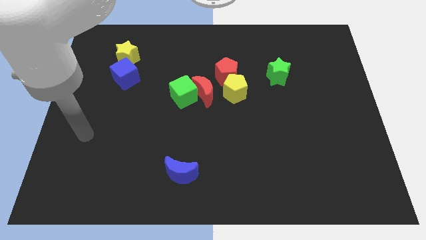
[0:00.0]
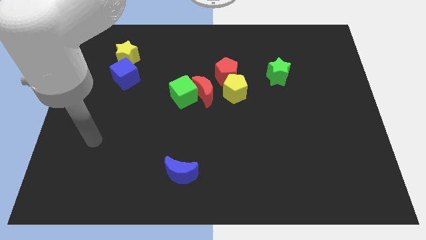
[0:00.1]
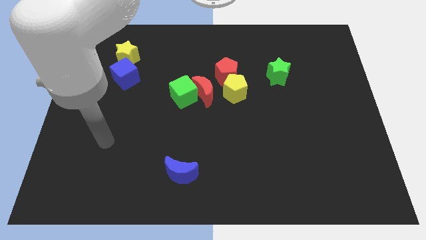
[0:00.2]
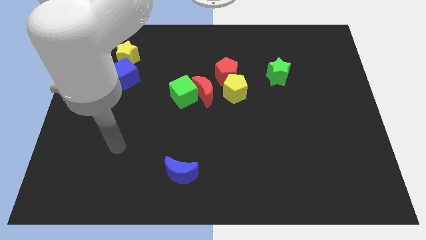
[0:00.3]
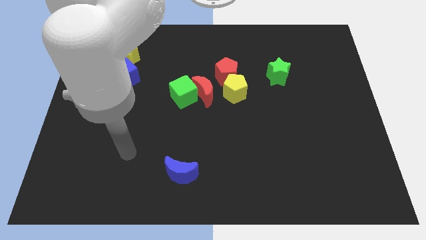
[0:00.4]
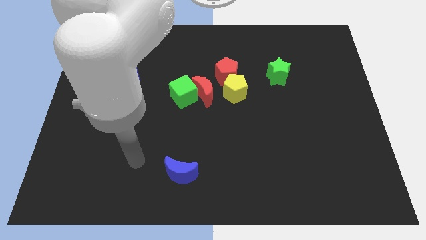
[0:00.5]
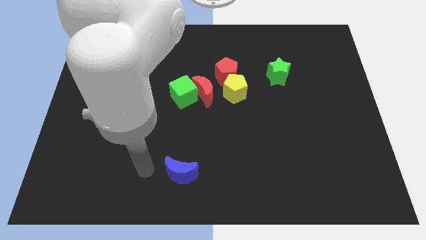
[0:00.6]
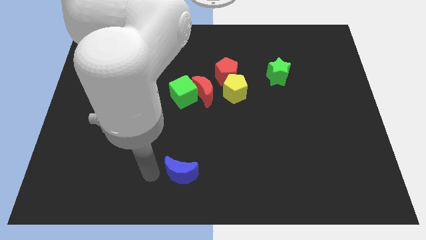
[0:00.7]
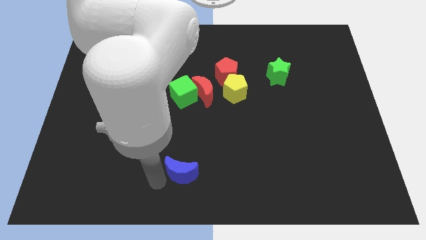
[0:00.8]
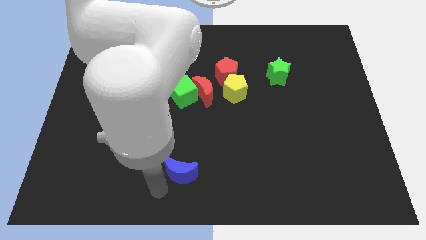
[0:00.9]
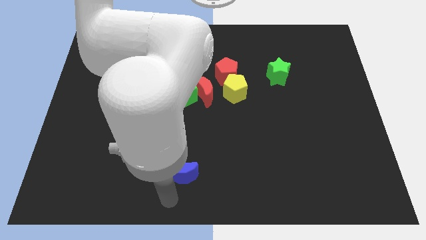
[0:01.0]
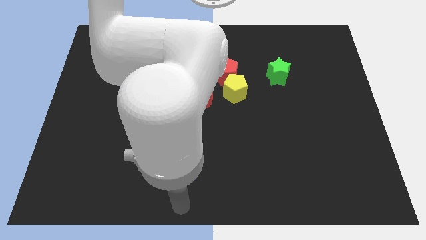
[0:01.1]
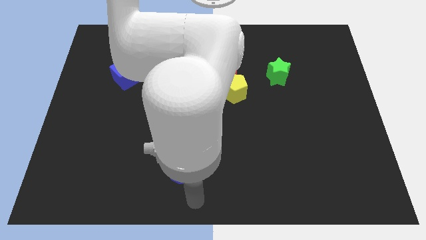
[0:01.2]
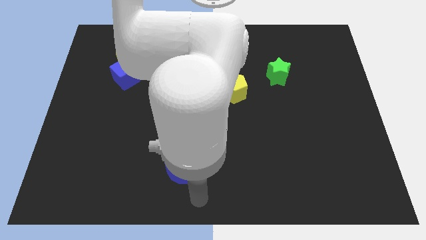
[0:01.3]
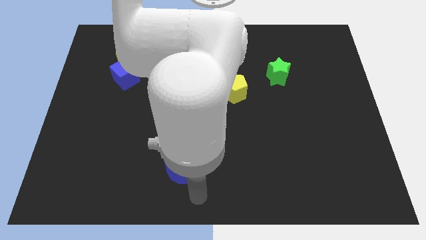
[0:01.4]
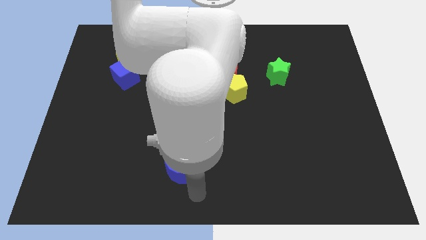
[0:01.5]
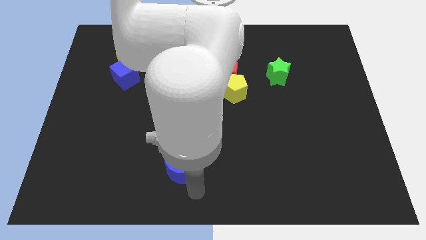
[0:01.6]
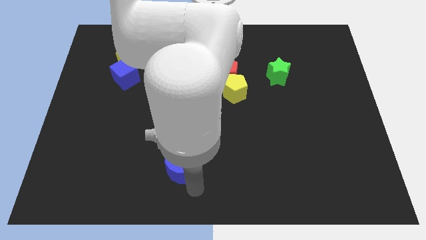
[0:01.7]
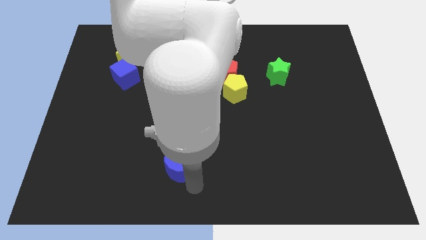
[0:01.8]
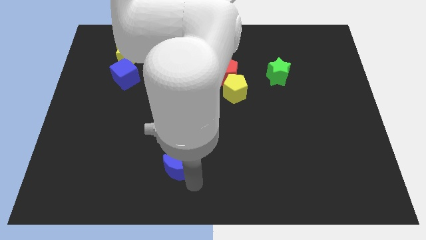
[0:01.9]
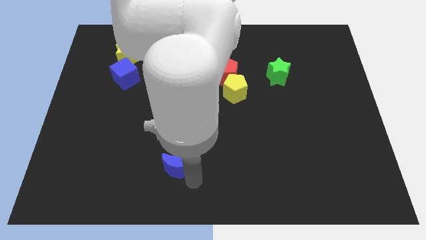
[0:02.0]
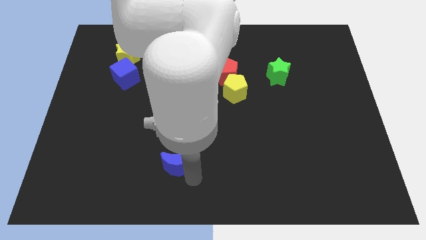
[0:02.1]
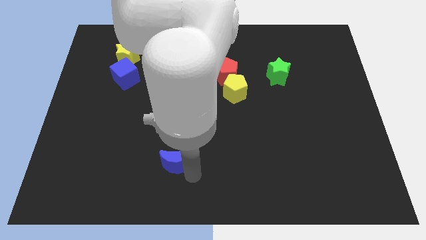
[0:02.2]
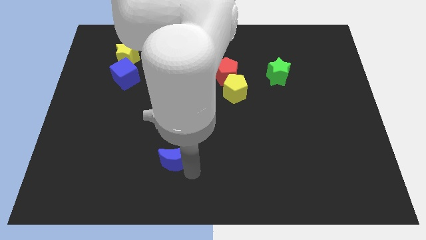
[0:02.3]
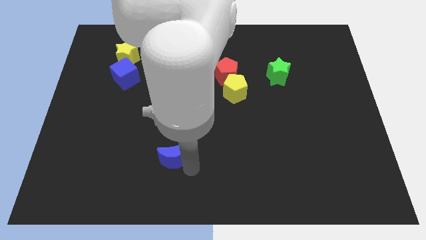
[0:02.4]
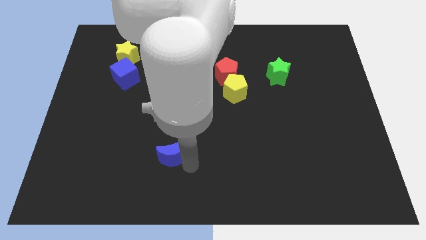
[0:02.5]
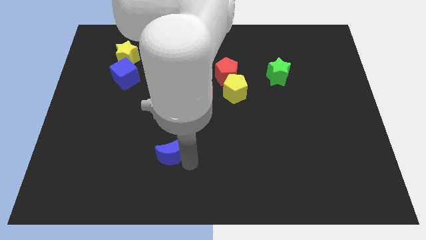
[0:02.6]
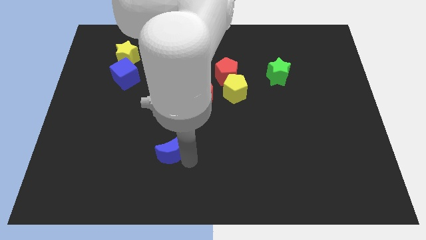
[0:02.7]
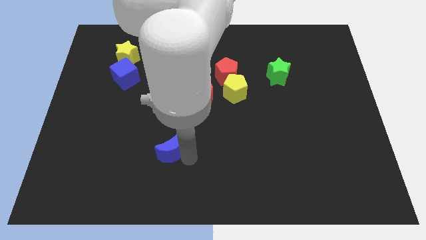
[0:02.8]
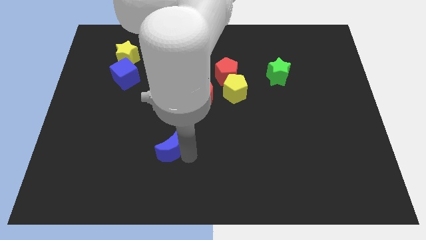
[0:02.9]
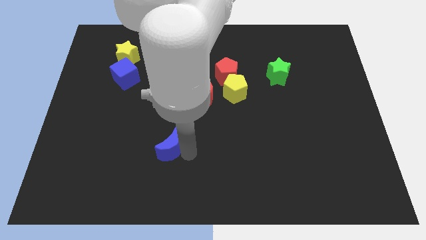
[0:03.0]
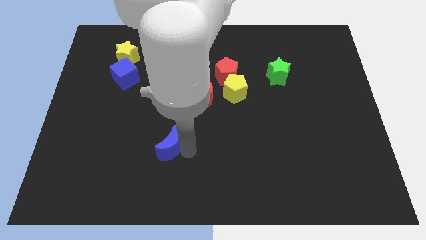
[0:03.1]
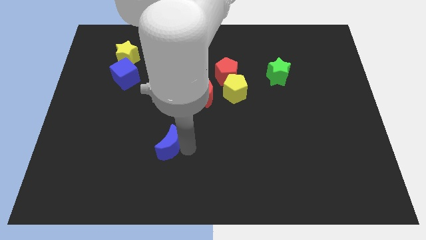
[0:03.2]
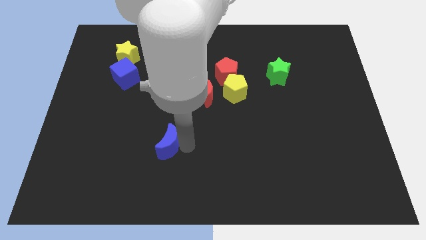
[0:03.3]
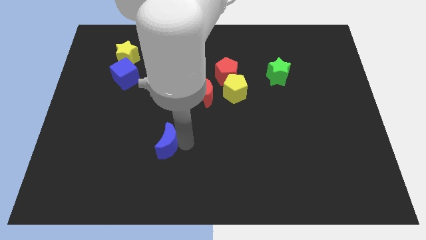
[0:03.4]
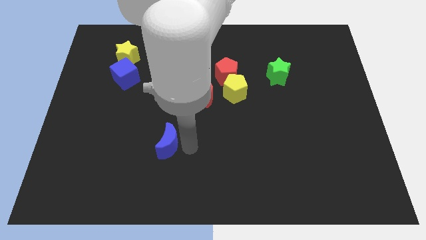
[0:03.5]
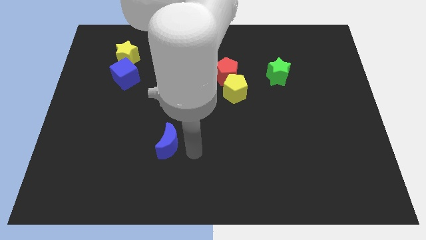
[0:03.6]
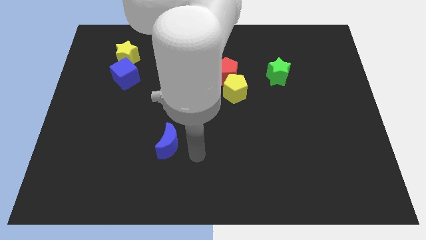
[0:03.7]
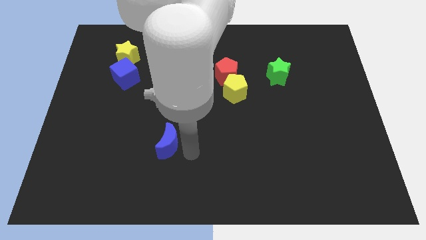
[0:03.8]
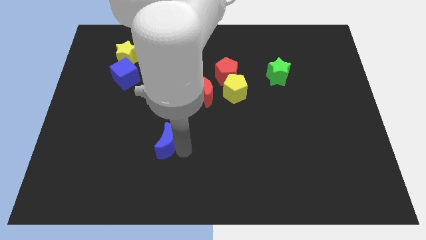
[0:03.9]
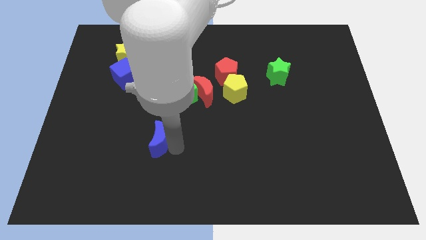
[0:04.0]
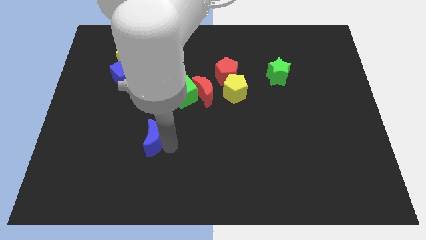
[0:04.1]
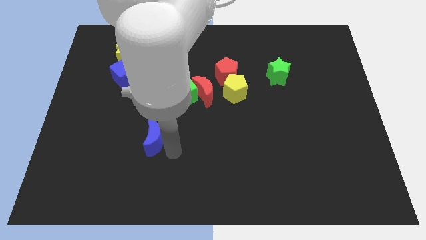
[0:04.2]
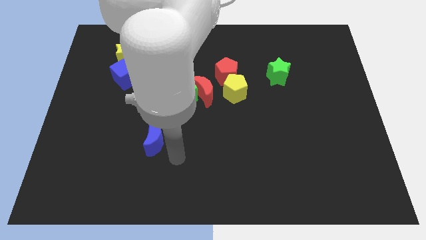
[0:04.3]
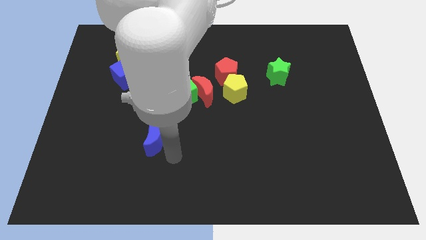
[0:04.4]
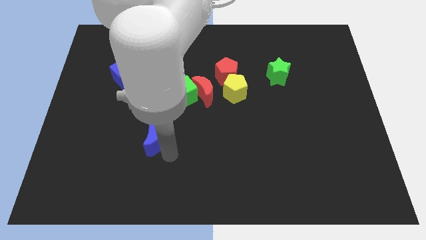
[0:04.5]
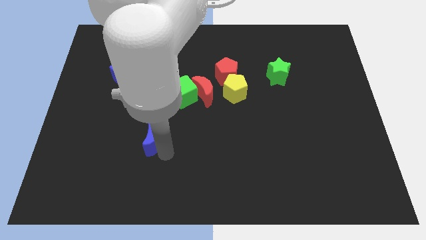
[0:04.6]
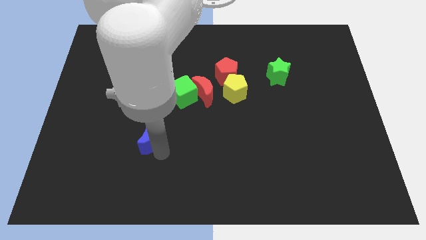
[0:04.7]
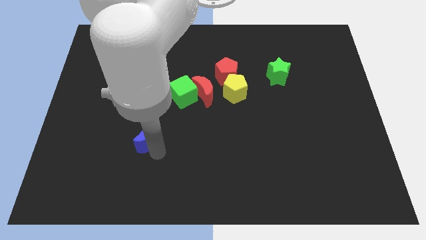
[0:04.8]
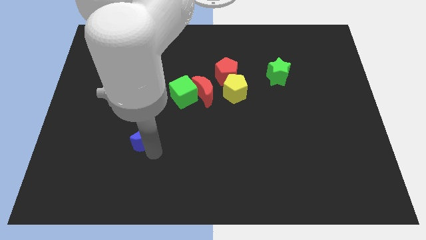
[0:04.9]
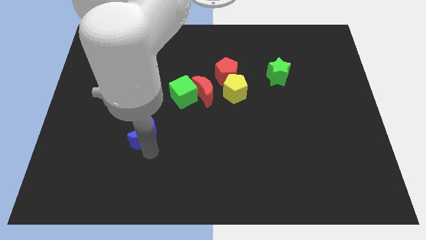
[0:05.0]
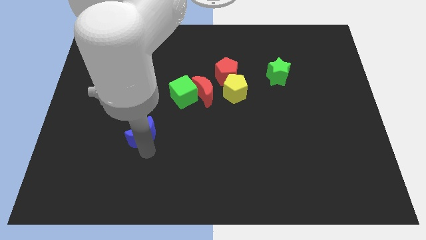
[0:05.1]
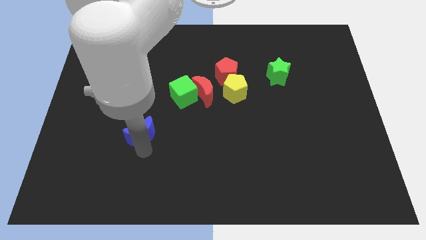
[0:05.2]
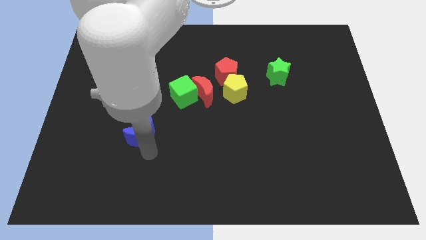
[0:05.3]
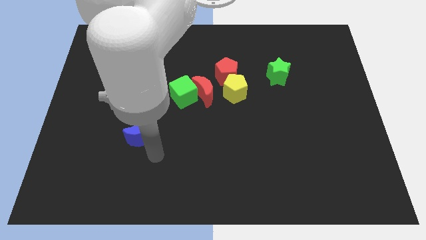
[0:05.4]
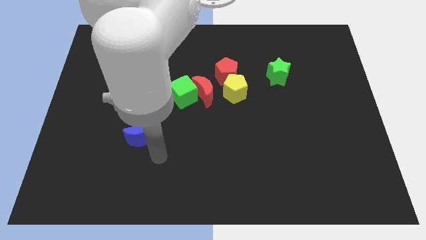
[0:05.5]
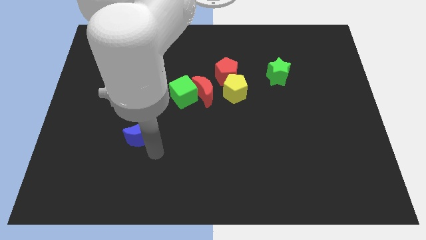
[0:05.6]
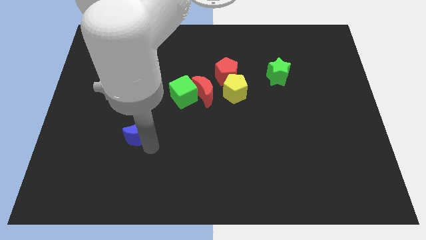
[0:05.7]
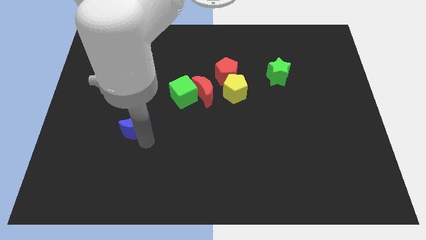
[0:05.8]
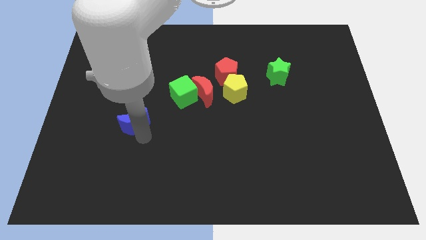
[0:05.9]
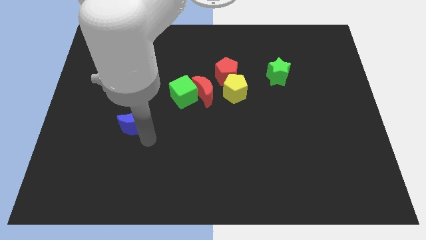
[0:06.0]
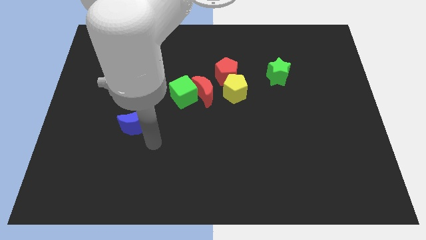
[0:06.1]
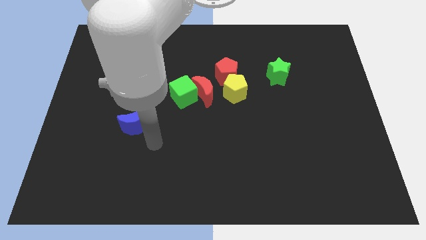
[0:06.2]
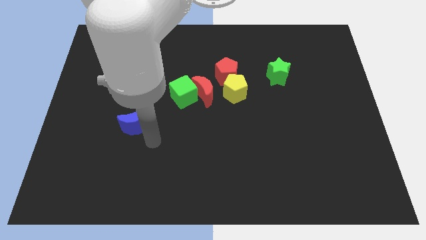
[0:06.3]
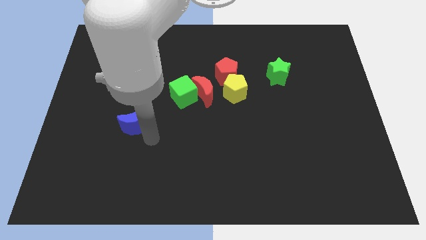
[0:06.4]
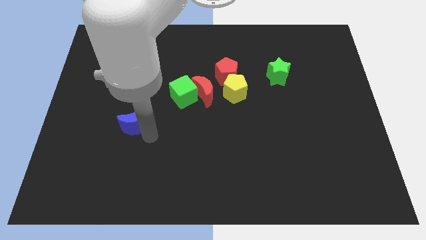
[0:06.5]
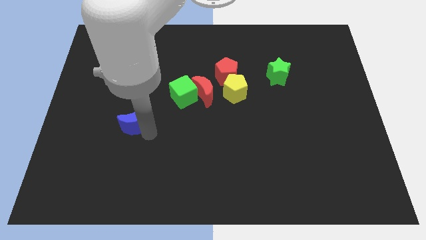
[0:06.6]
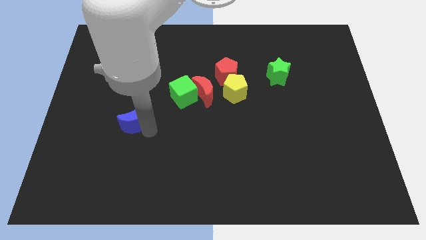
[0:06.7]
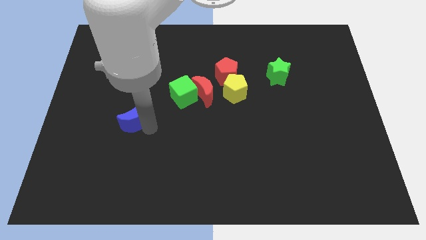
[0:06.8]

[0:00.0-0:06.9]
slide the blue moon to the bottom side of the blue cube
